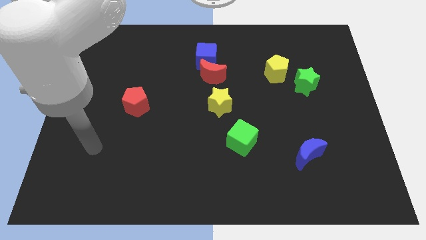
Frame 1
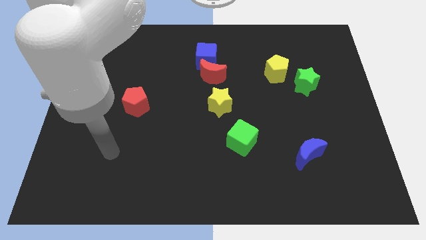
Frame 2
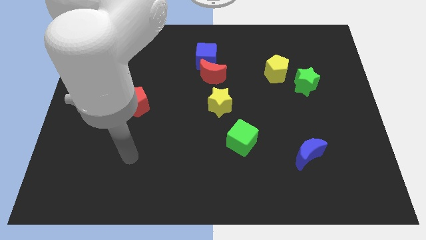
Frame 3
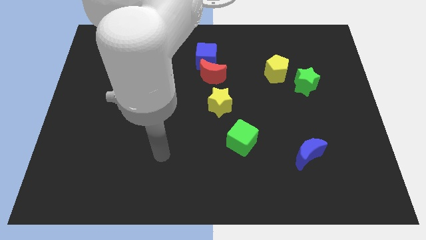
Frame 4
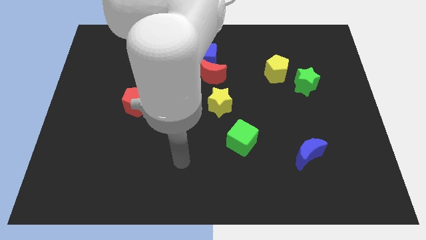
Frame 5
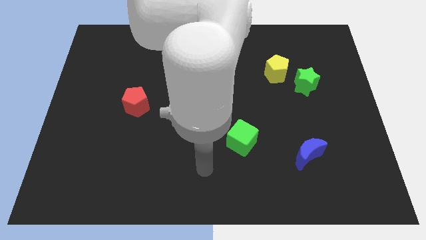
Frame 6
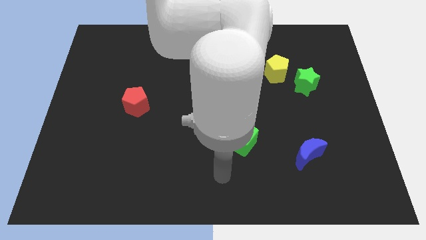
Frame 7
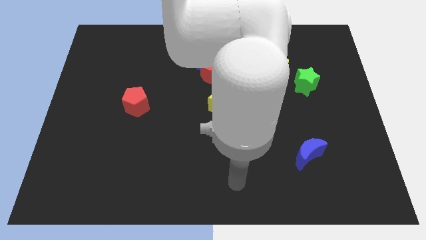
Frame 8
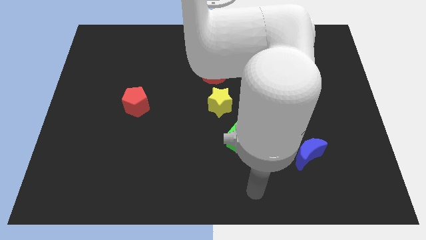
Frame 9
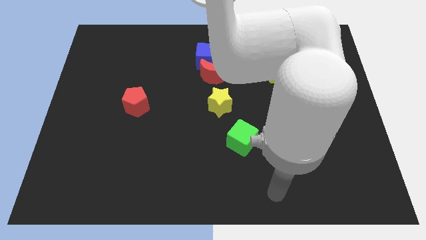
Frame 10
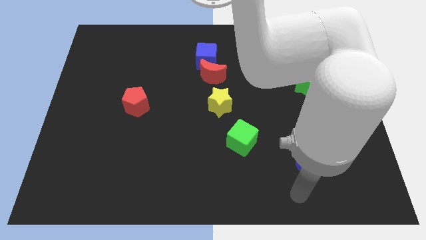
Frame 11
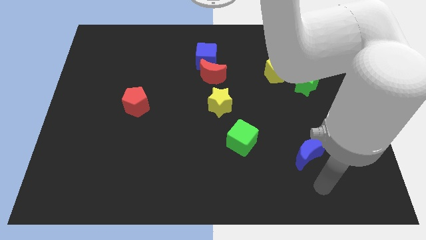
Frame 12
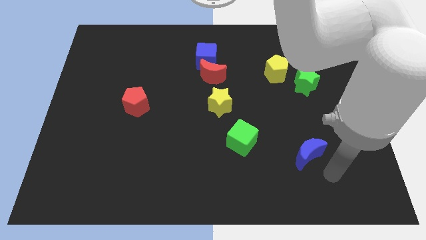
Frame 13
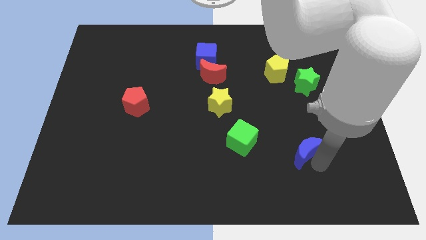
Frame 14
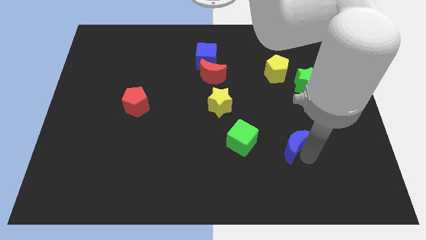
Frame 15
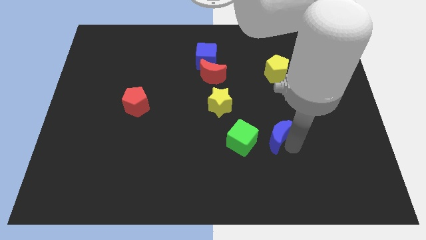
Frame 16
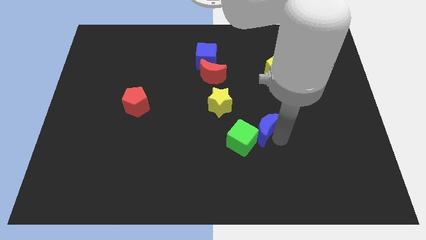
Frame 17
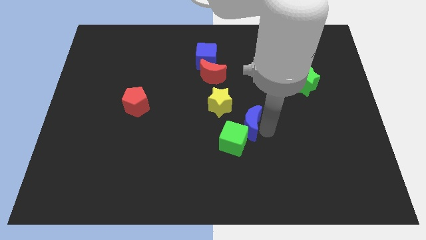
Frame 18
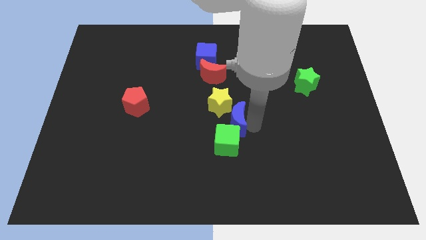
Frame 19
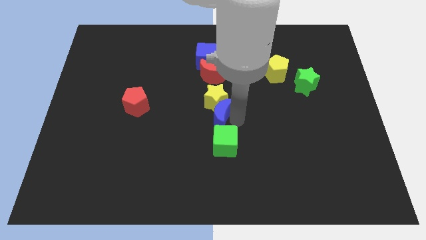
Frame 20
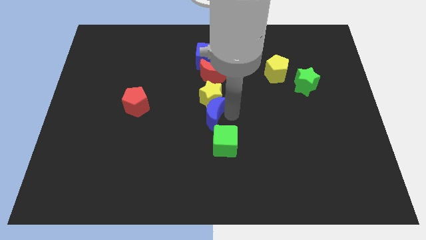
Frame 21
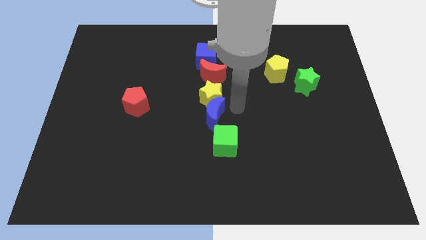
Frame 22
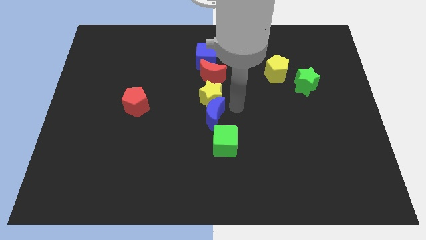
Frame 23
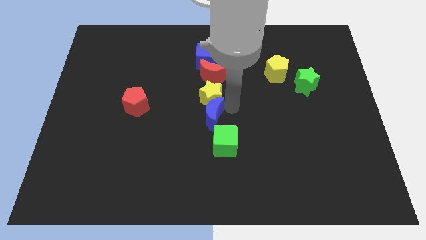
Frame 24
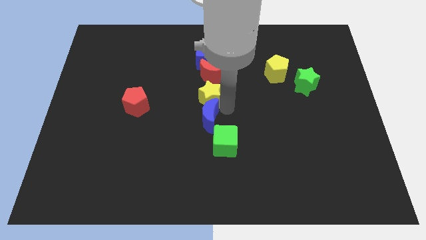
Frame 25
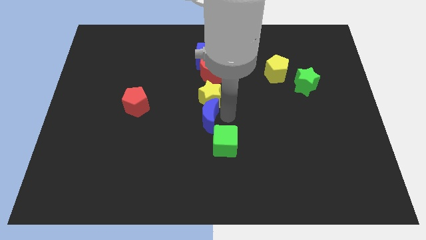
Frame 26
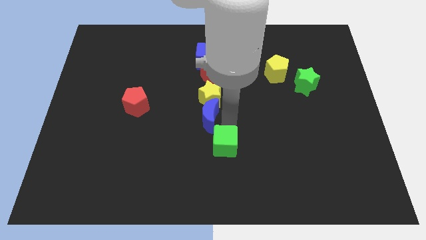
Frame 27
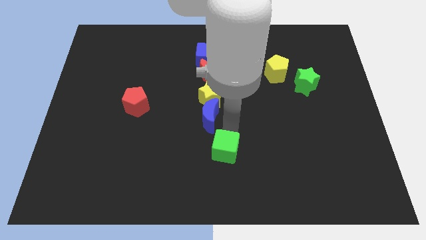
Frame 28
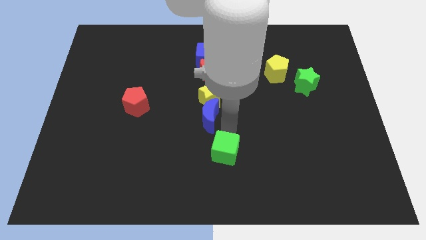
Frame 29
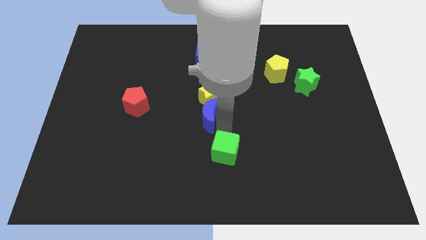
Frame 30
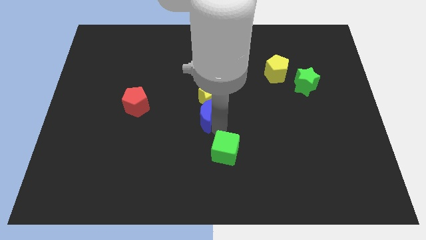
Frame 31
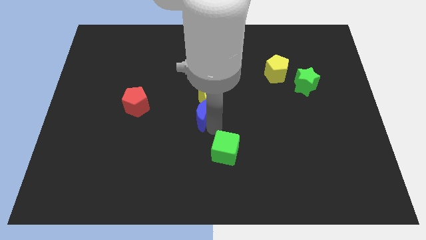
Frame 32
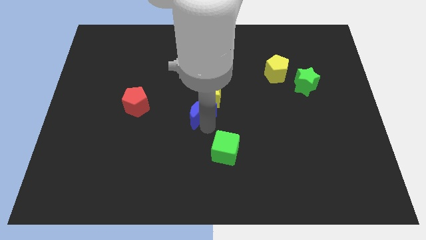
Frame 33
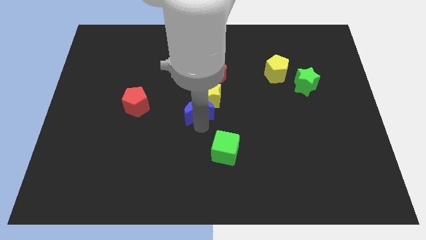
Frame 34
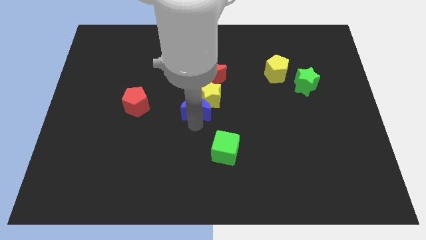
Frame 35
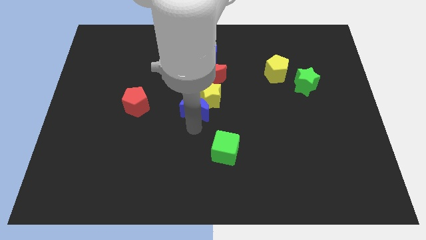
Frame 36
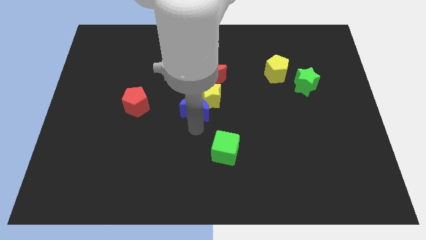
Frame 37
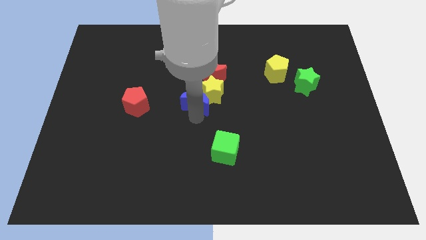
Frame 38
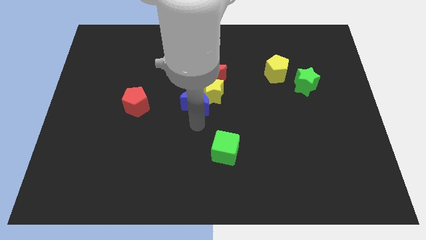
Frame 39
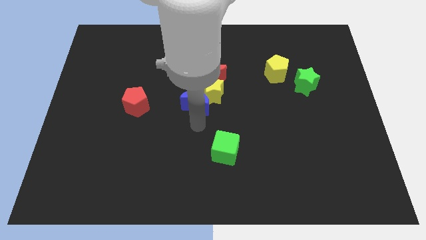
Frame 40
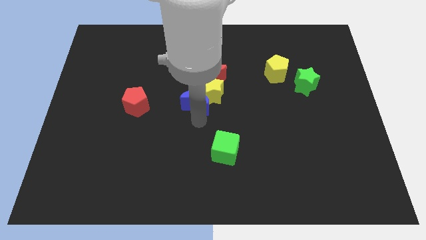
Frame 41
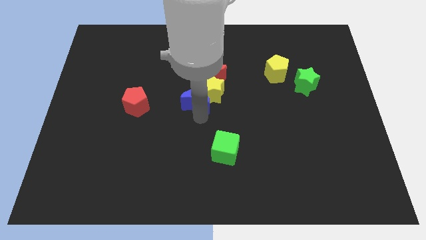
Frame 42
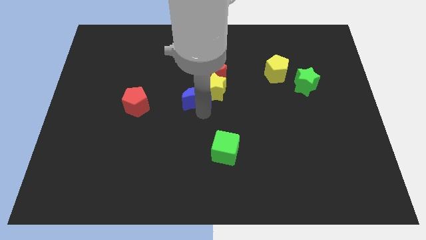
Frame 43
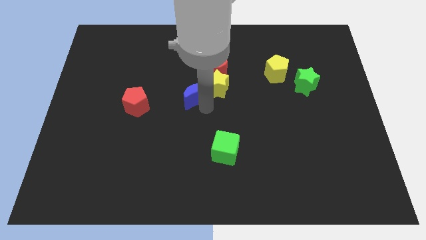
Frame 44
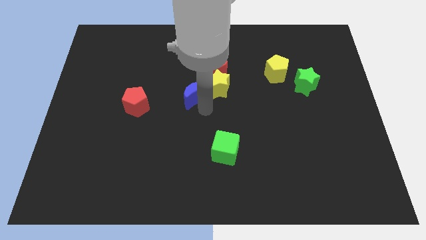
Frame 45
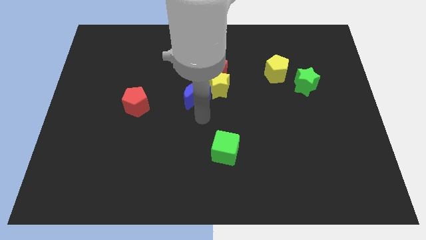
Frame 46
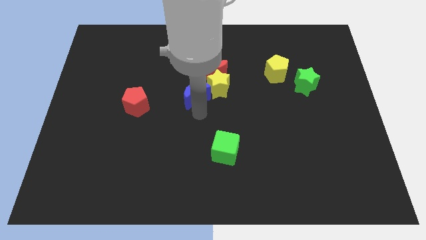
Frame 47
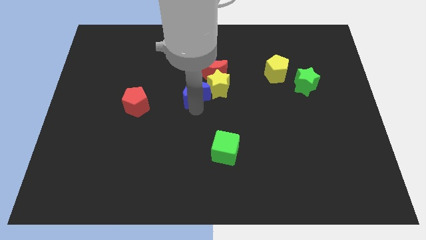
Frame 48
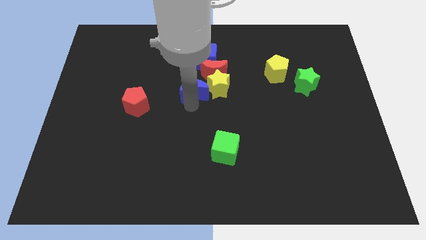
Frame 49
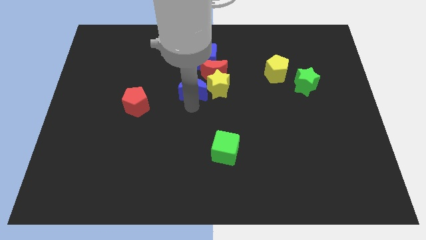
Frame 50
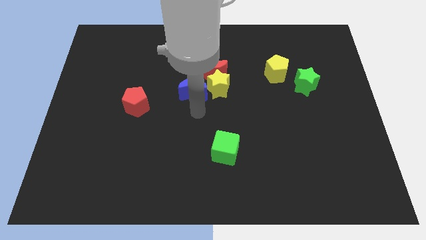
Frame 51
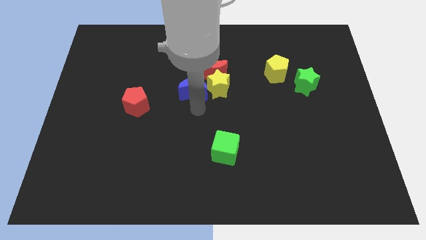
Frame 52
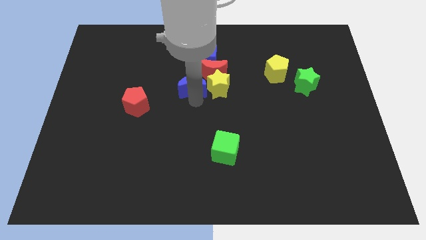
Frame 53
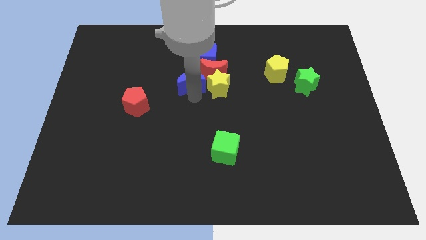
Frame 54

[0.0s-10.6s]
move the blue moon to the left side of the red moon

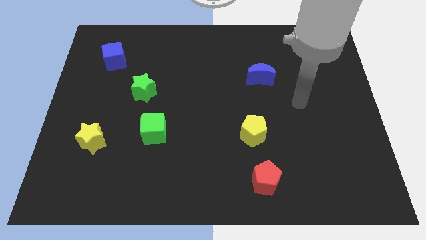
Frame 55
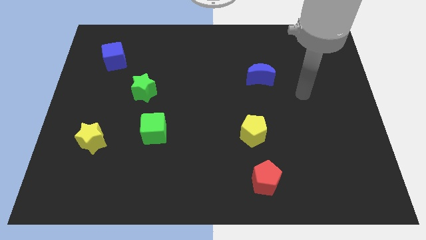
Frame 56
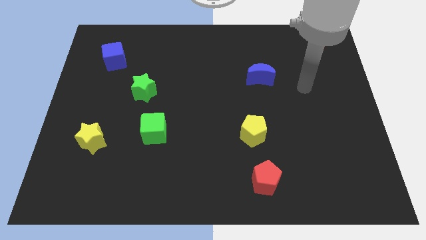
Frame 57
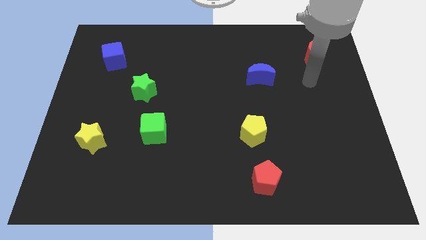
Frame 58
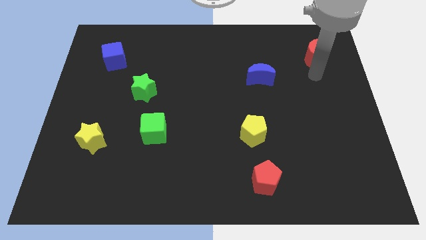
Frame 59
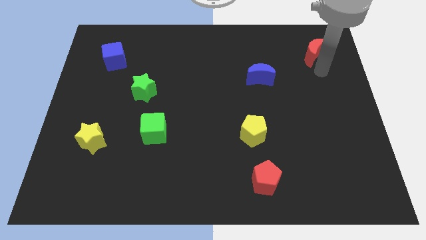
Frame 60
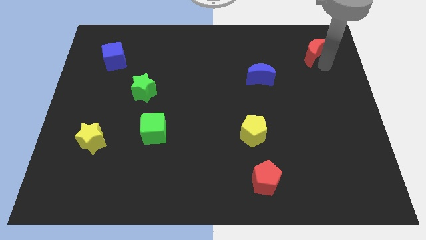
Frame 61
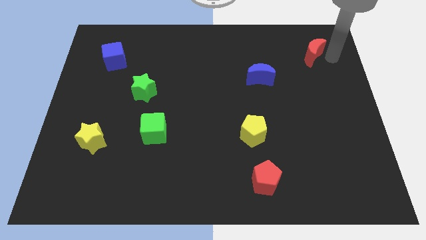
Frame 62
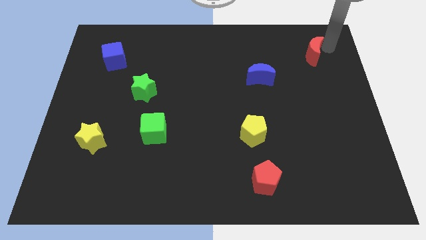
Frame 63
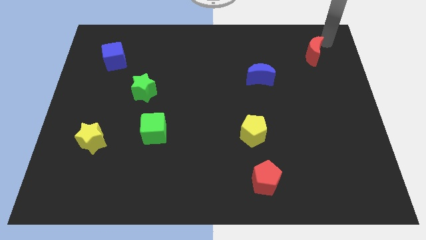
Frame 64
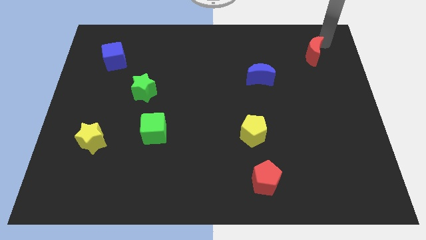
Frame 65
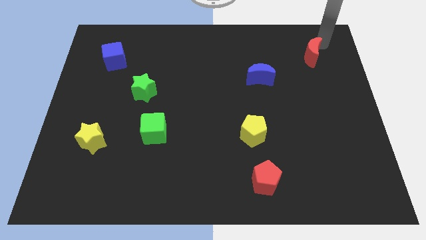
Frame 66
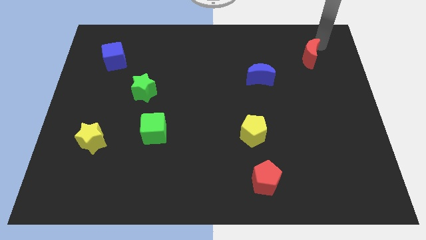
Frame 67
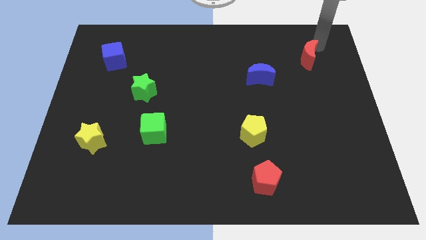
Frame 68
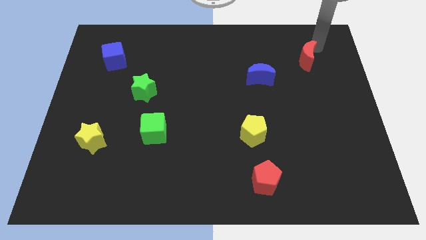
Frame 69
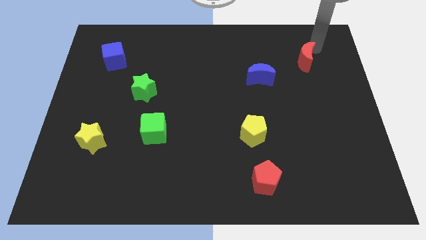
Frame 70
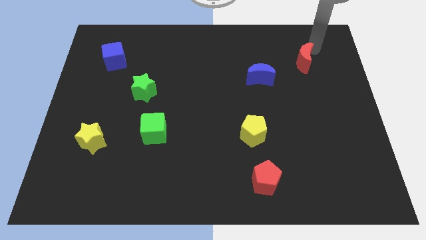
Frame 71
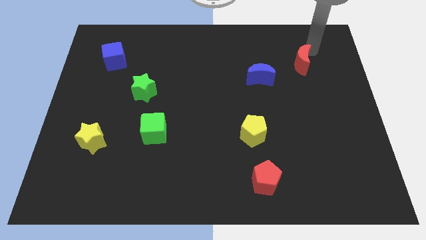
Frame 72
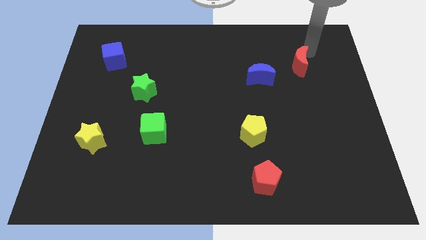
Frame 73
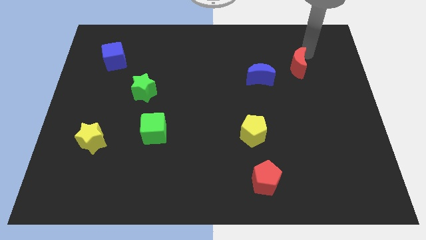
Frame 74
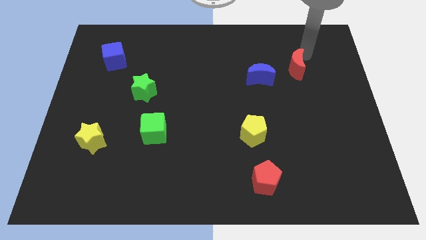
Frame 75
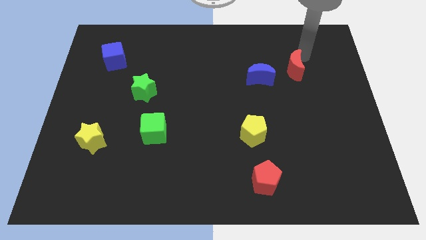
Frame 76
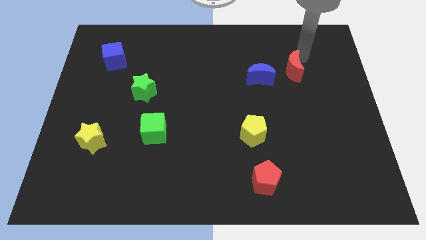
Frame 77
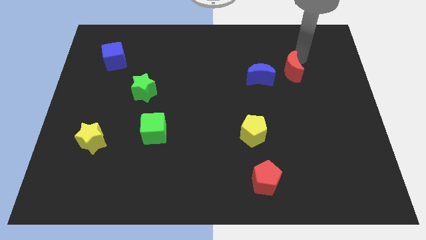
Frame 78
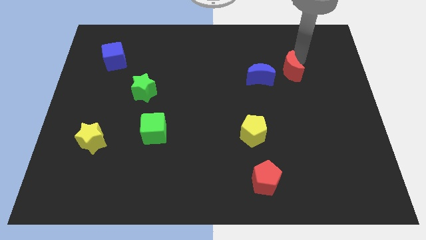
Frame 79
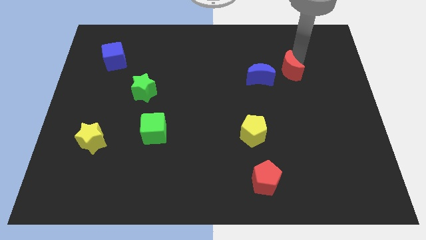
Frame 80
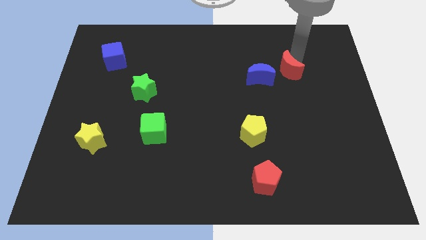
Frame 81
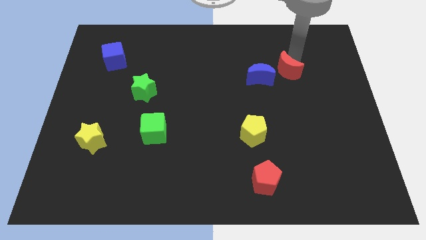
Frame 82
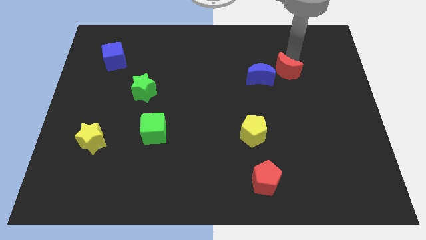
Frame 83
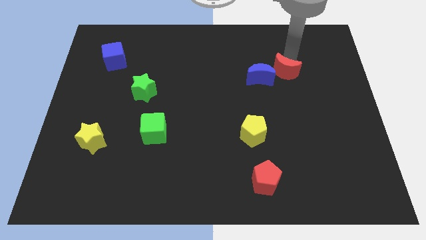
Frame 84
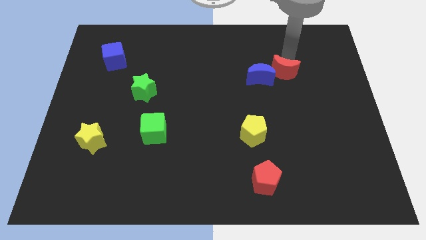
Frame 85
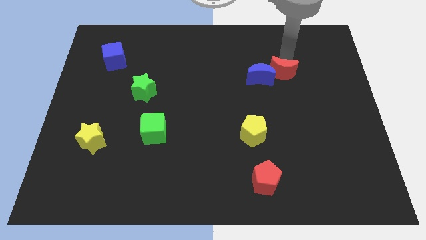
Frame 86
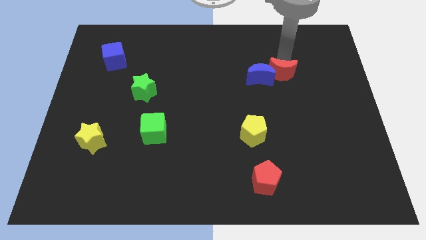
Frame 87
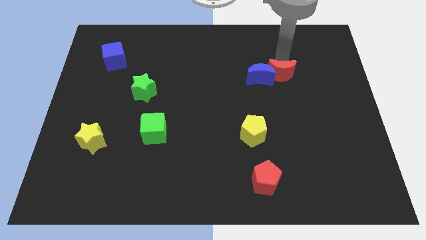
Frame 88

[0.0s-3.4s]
push the red moon diagonally down and to the right of the blue moon
